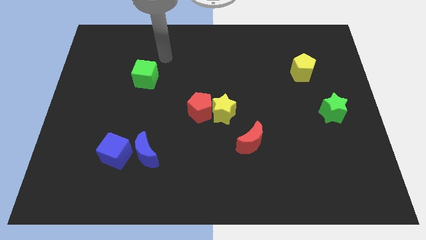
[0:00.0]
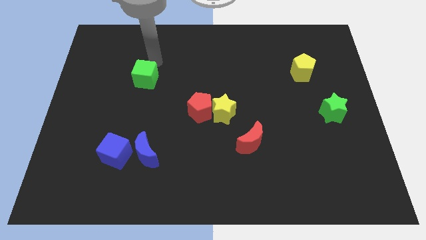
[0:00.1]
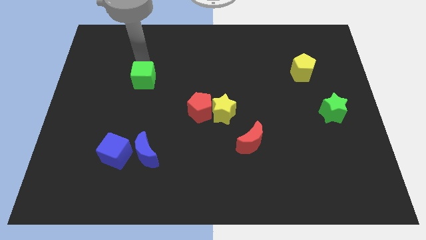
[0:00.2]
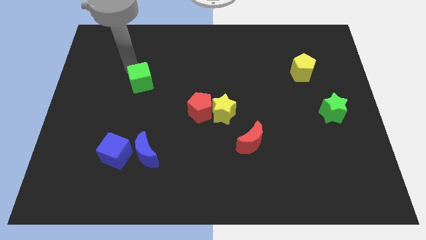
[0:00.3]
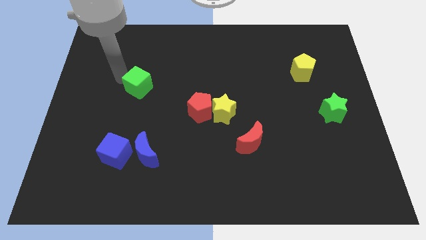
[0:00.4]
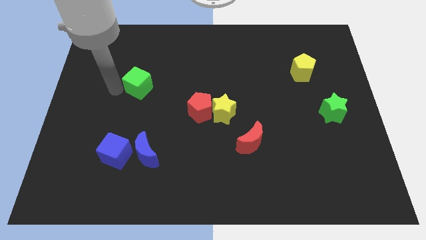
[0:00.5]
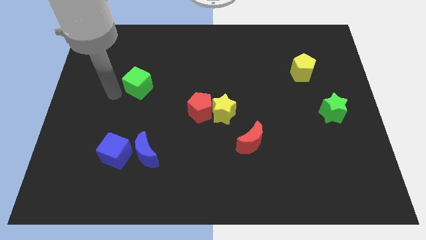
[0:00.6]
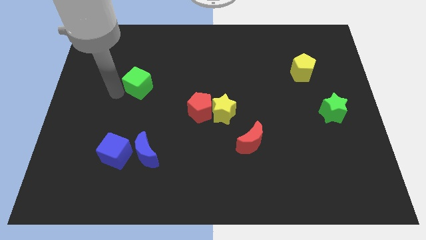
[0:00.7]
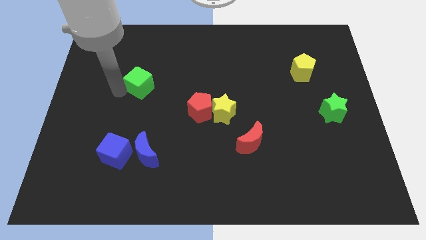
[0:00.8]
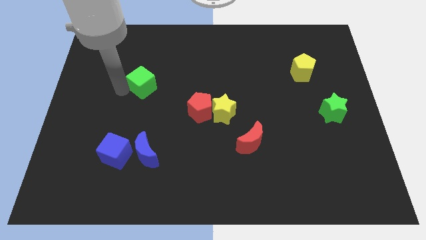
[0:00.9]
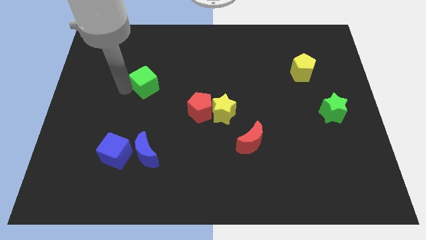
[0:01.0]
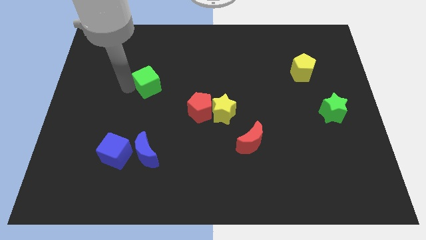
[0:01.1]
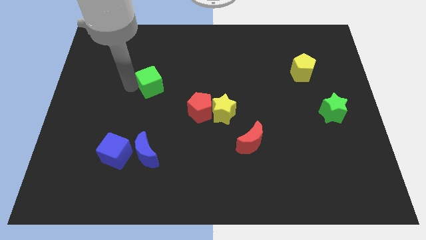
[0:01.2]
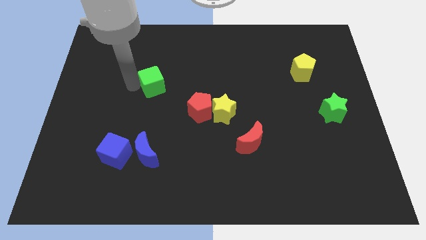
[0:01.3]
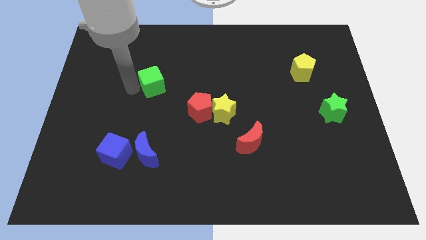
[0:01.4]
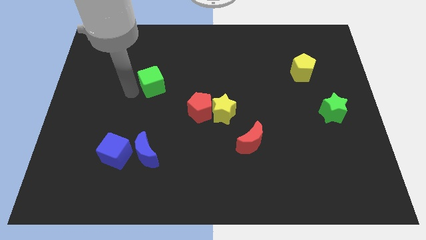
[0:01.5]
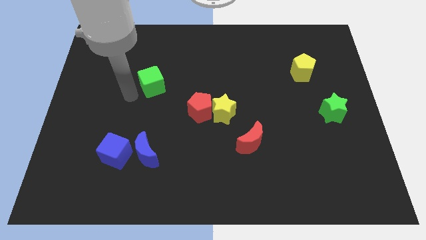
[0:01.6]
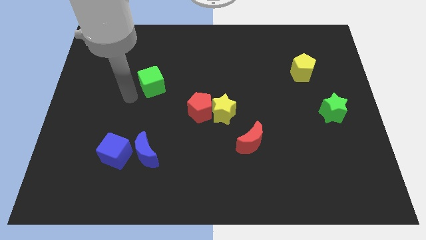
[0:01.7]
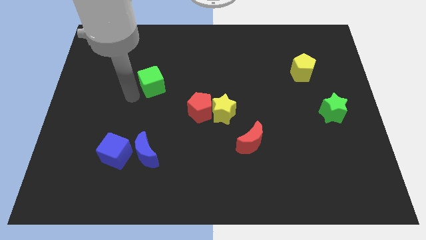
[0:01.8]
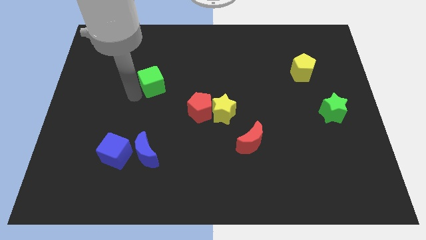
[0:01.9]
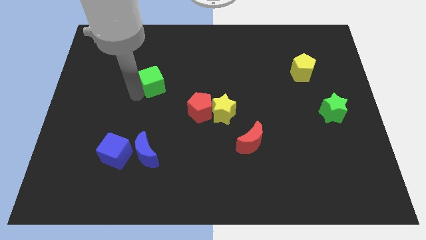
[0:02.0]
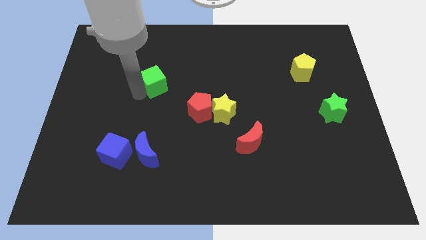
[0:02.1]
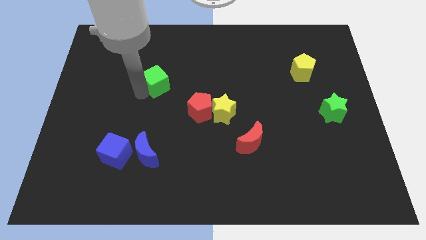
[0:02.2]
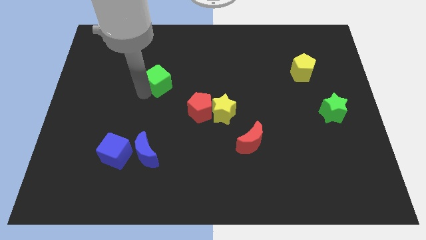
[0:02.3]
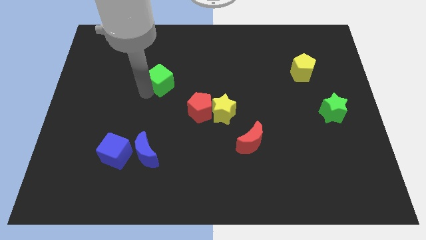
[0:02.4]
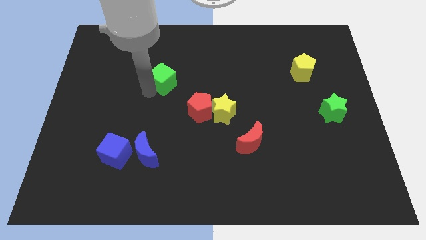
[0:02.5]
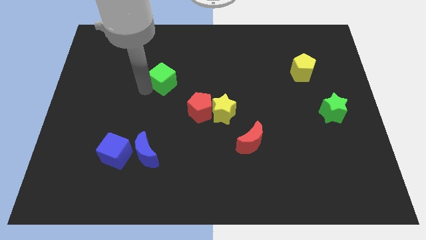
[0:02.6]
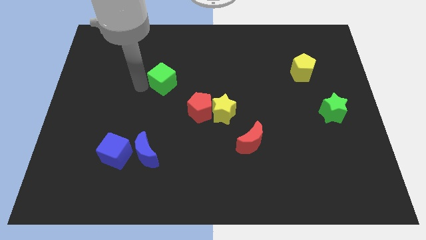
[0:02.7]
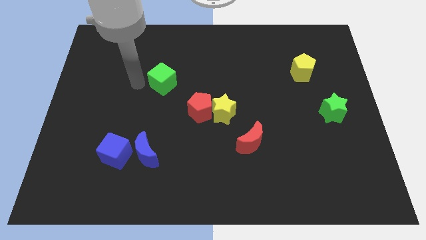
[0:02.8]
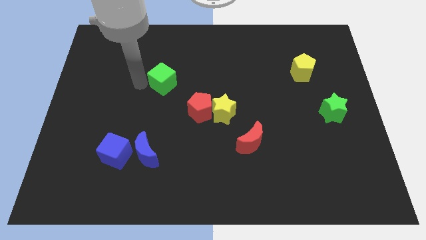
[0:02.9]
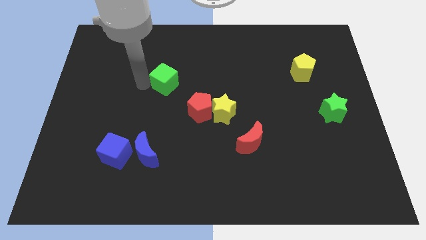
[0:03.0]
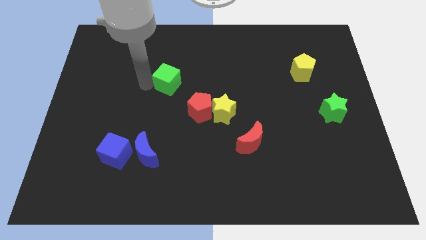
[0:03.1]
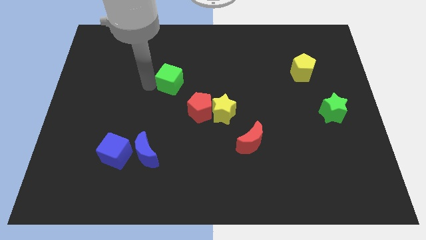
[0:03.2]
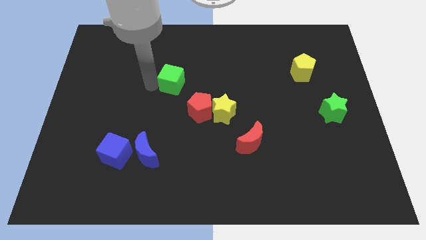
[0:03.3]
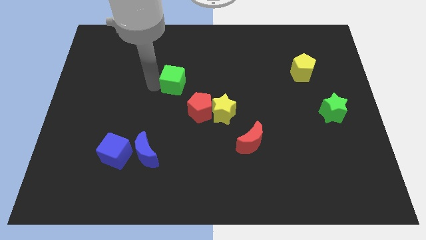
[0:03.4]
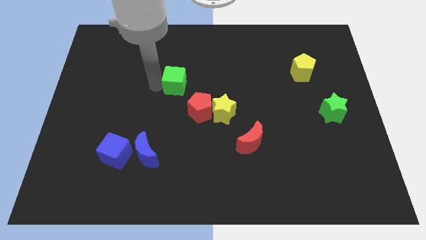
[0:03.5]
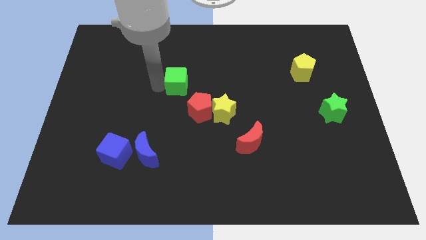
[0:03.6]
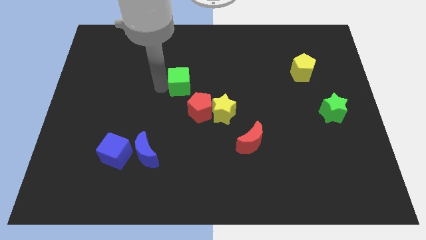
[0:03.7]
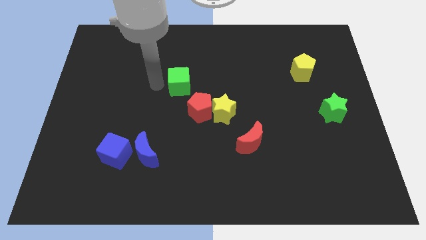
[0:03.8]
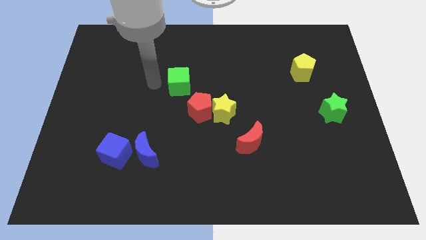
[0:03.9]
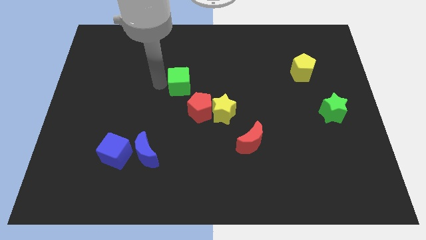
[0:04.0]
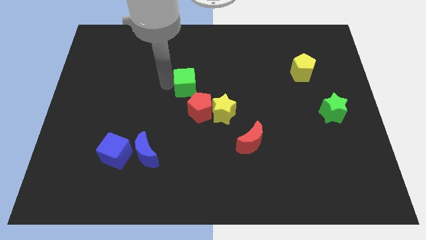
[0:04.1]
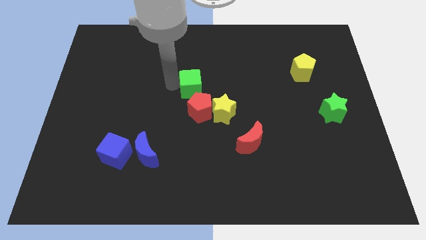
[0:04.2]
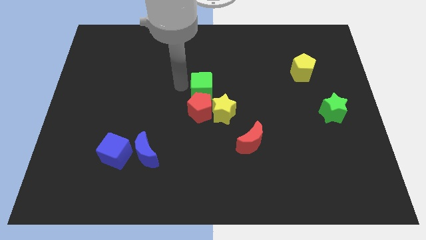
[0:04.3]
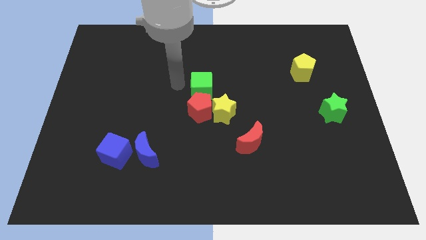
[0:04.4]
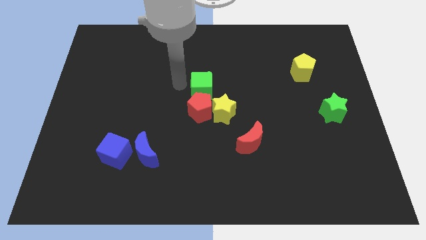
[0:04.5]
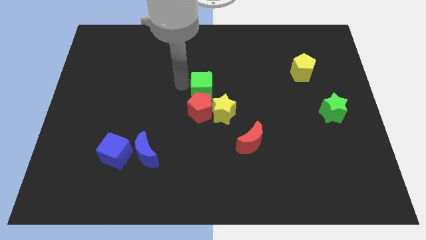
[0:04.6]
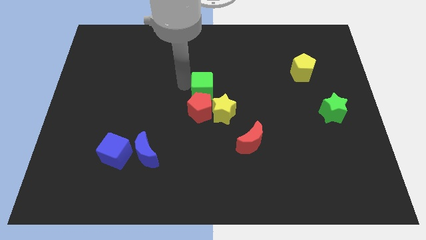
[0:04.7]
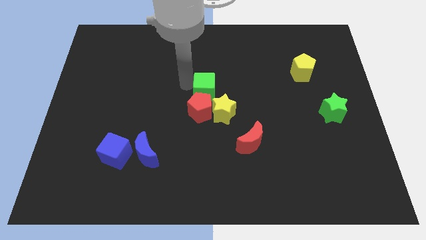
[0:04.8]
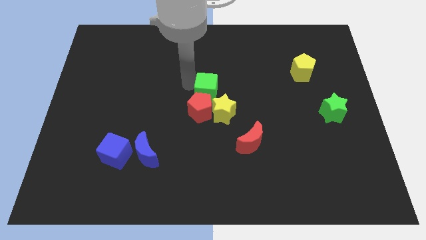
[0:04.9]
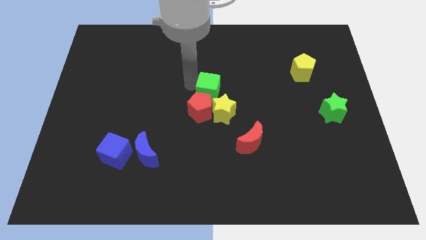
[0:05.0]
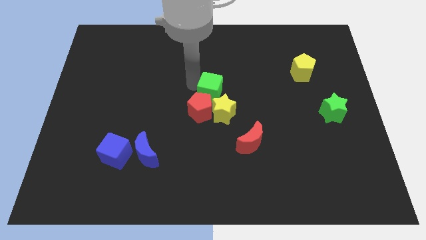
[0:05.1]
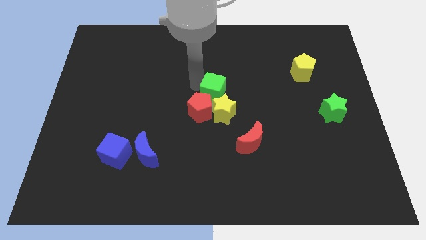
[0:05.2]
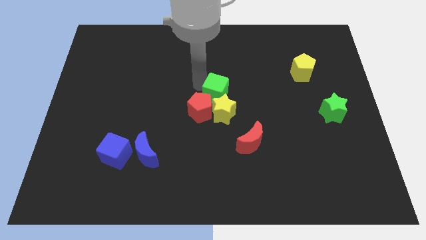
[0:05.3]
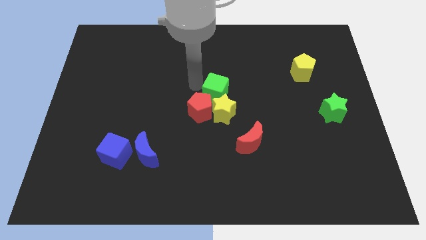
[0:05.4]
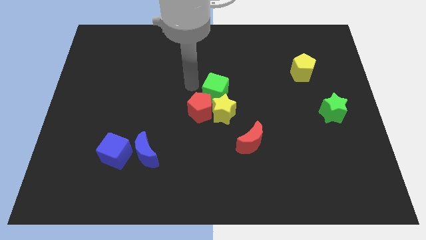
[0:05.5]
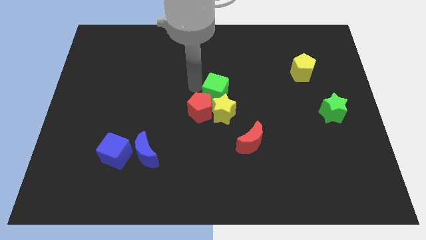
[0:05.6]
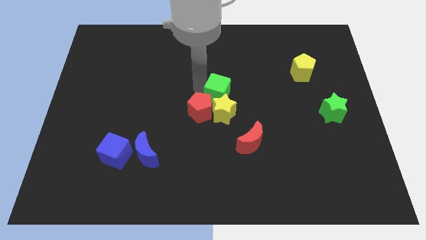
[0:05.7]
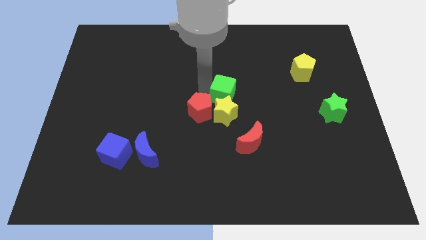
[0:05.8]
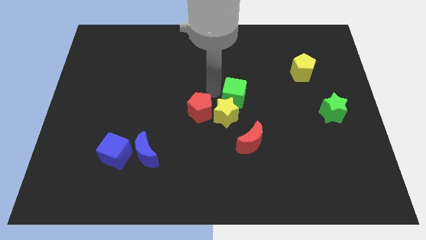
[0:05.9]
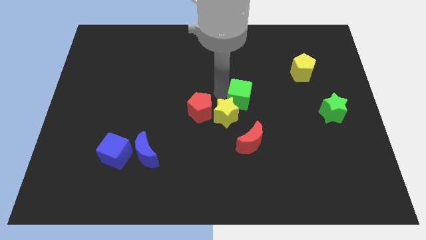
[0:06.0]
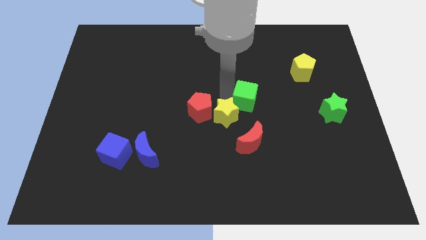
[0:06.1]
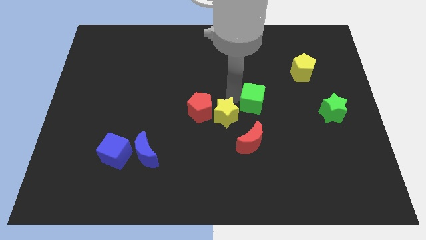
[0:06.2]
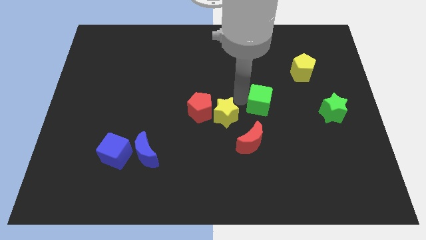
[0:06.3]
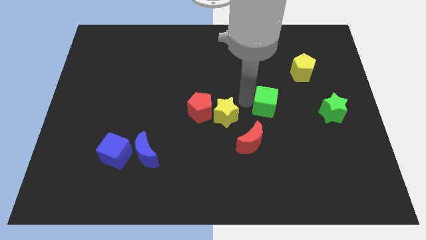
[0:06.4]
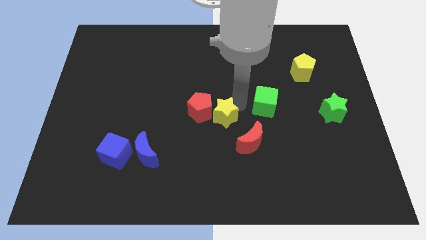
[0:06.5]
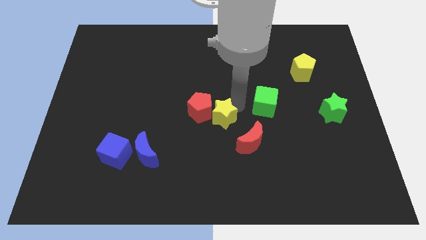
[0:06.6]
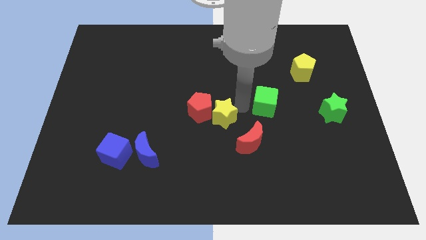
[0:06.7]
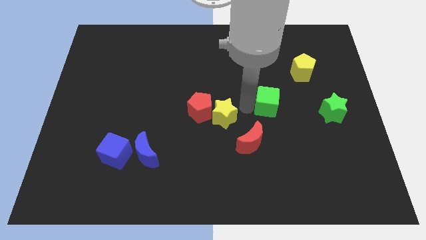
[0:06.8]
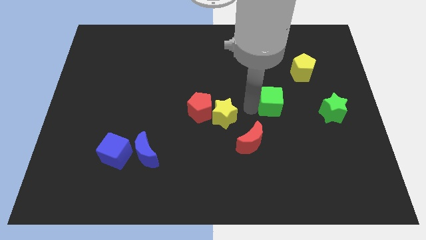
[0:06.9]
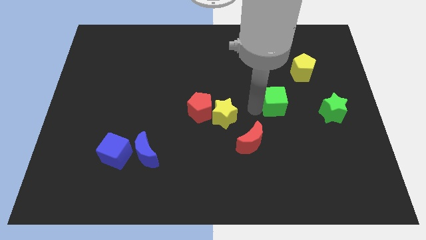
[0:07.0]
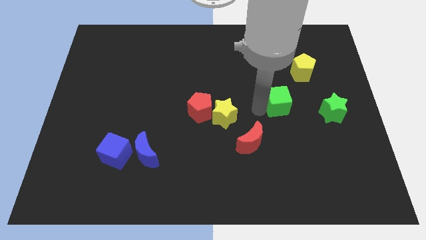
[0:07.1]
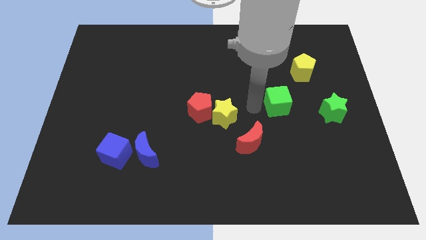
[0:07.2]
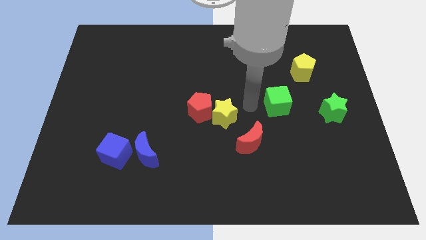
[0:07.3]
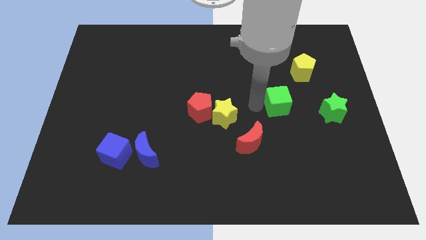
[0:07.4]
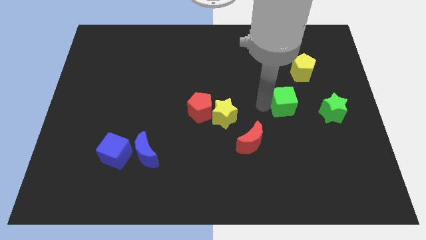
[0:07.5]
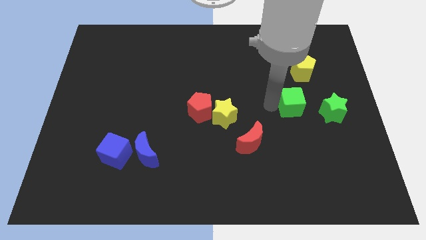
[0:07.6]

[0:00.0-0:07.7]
slide the green cube to the bottom side of the yellow pentagon
